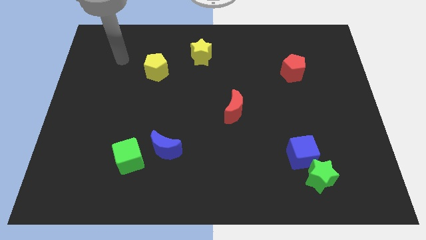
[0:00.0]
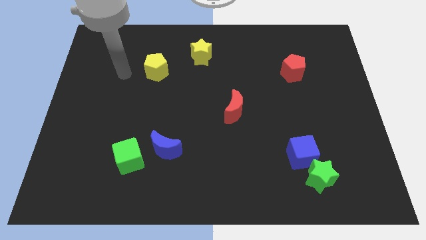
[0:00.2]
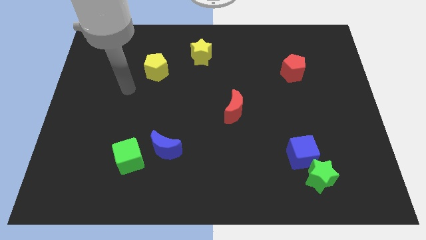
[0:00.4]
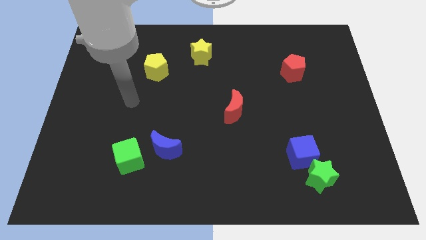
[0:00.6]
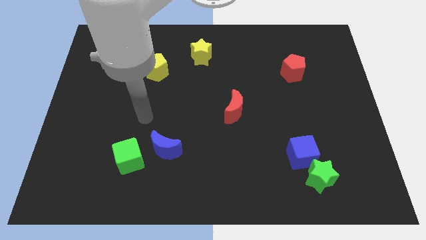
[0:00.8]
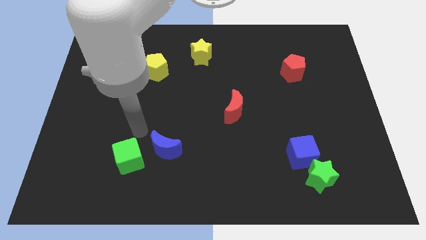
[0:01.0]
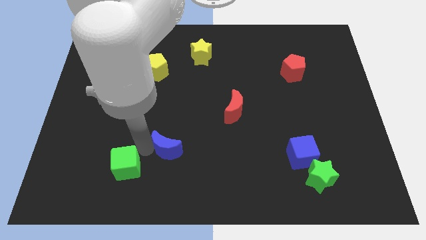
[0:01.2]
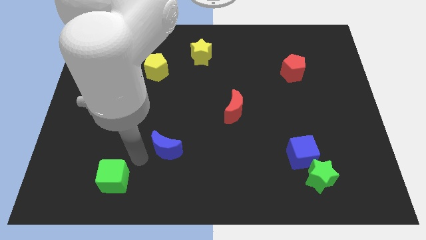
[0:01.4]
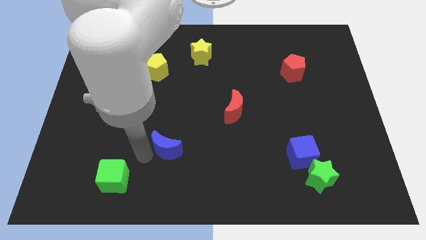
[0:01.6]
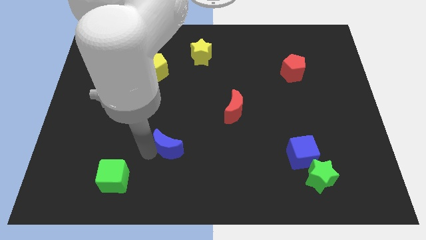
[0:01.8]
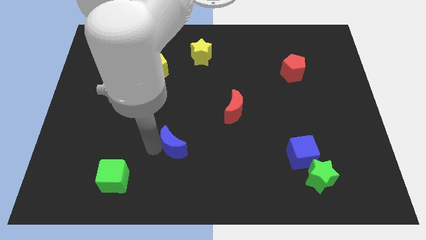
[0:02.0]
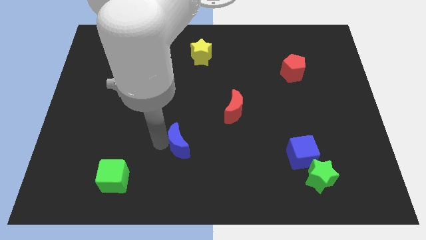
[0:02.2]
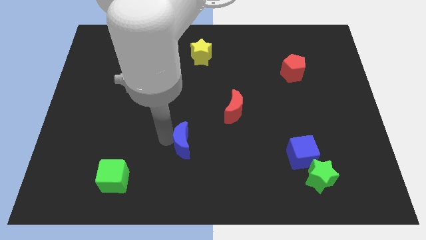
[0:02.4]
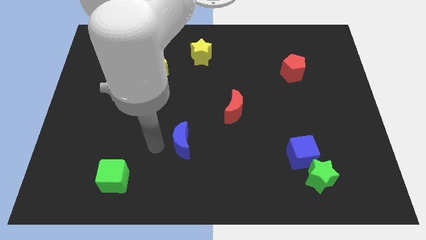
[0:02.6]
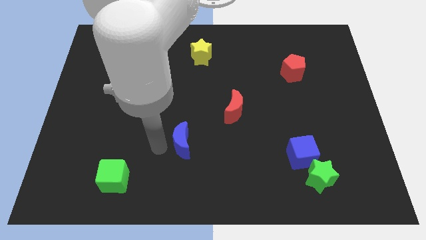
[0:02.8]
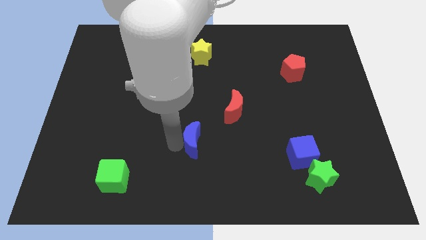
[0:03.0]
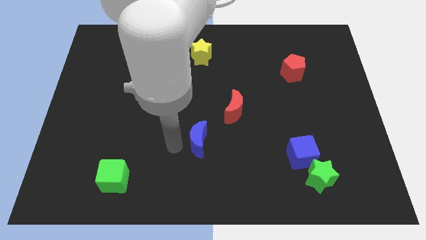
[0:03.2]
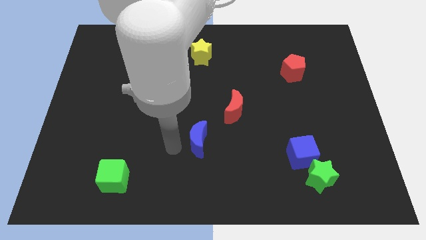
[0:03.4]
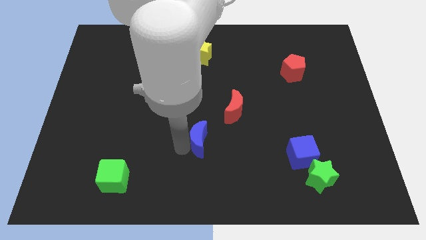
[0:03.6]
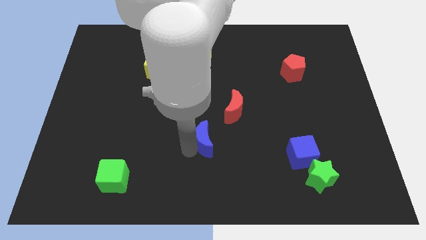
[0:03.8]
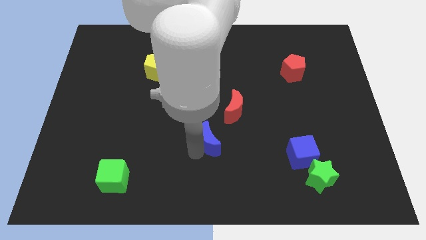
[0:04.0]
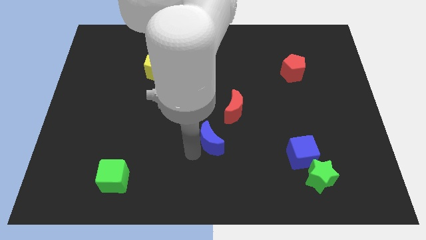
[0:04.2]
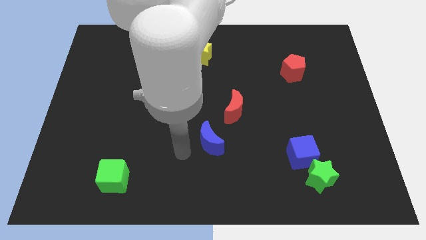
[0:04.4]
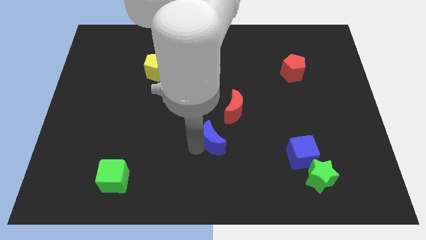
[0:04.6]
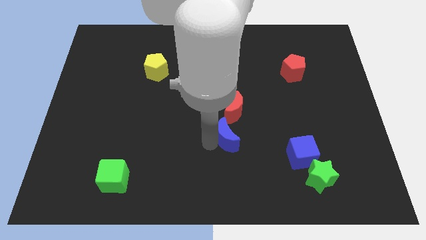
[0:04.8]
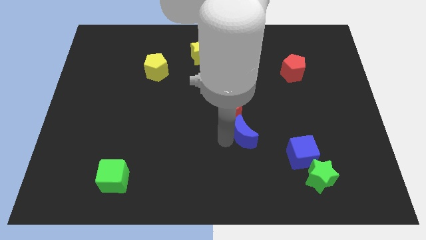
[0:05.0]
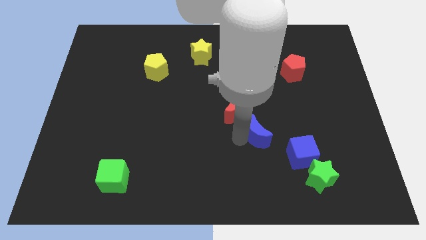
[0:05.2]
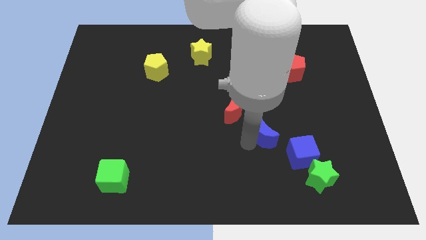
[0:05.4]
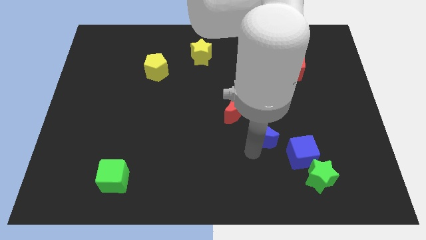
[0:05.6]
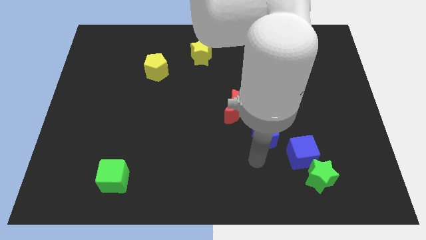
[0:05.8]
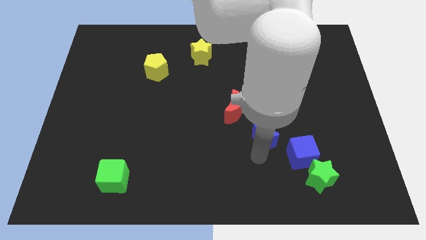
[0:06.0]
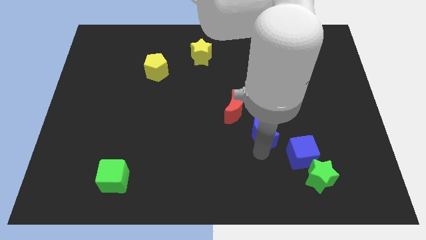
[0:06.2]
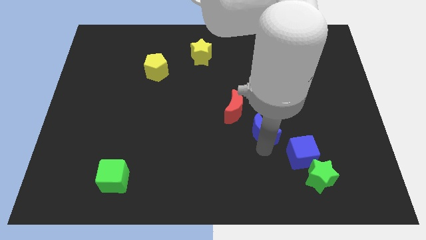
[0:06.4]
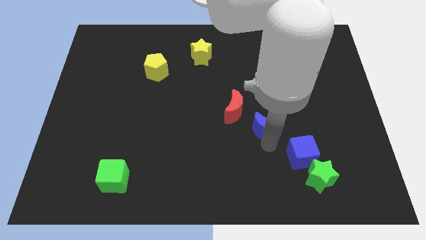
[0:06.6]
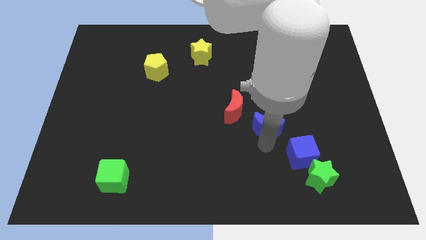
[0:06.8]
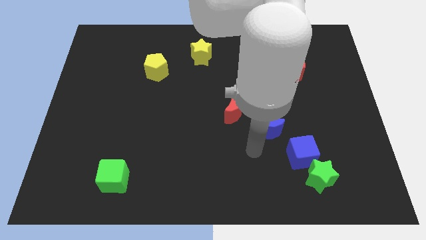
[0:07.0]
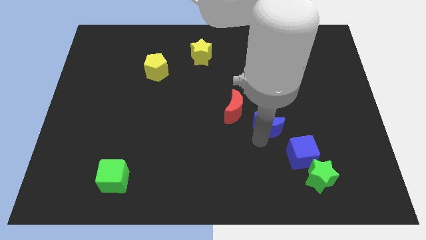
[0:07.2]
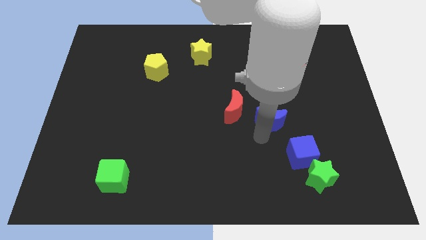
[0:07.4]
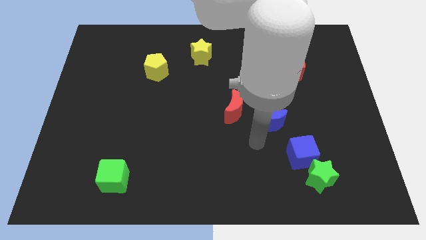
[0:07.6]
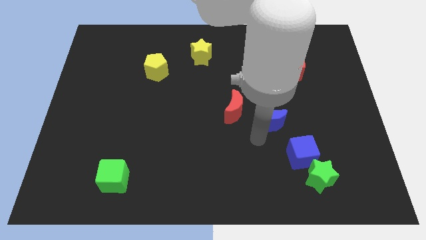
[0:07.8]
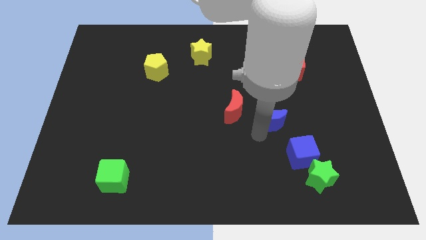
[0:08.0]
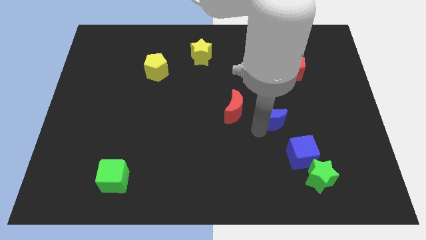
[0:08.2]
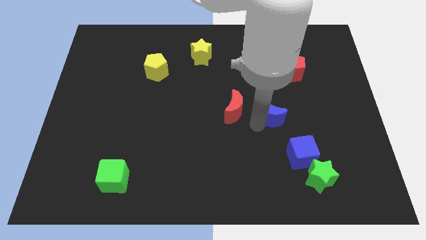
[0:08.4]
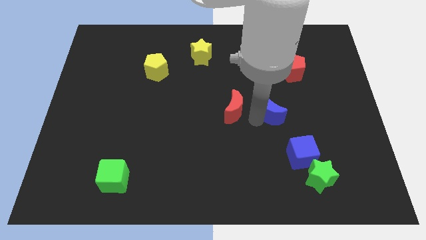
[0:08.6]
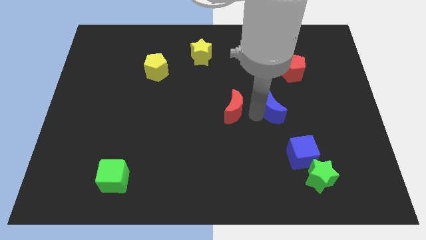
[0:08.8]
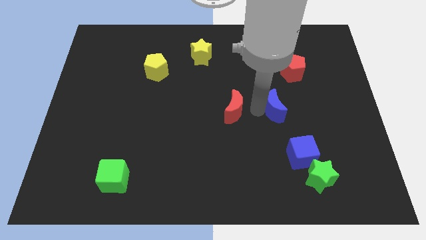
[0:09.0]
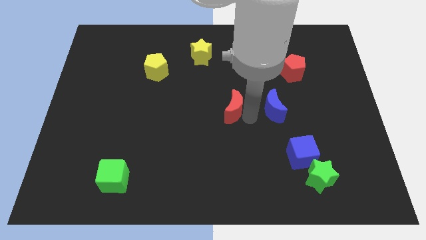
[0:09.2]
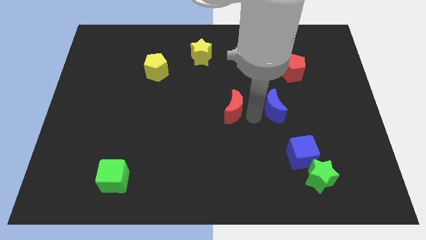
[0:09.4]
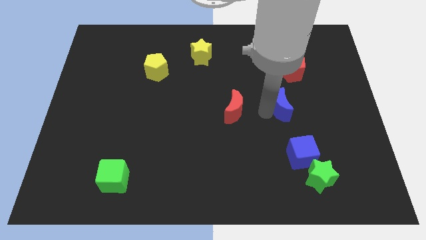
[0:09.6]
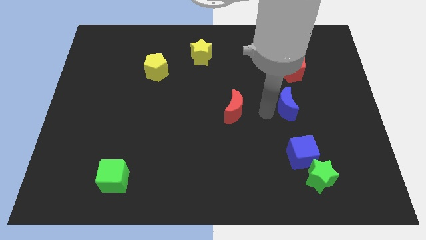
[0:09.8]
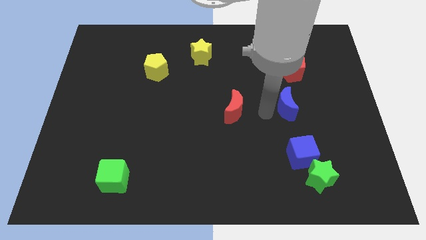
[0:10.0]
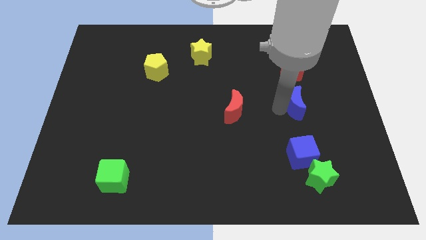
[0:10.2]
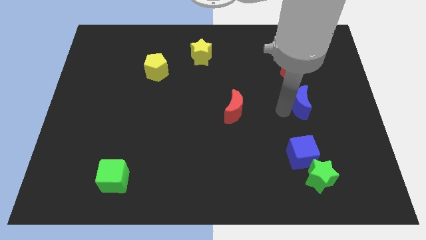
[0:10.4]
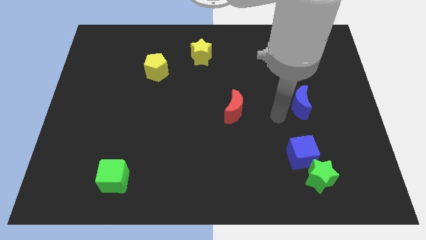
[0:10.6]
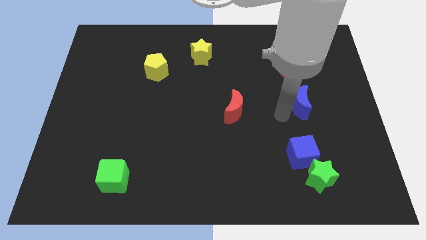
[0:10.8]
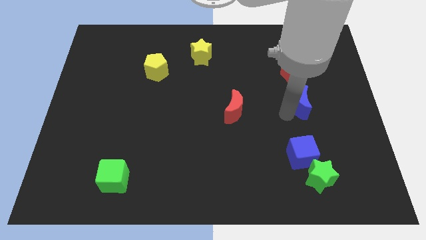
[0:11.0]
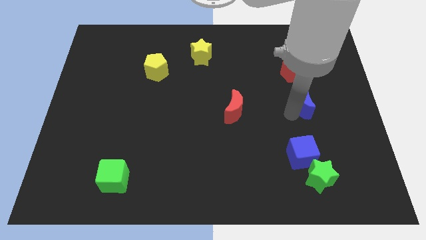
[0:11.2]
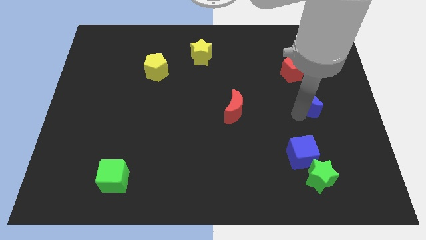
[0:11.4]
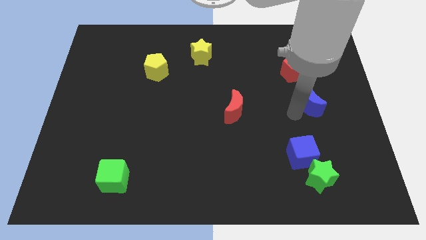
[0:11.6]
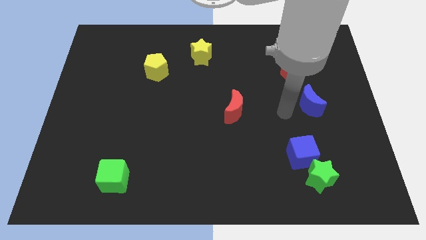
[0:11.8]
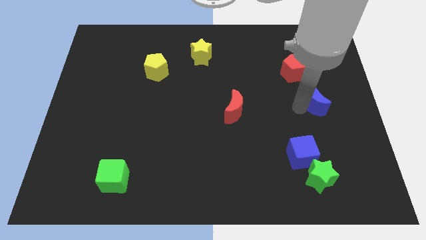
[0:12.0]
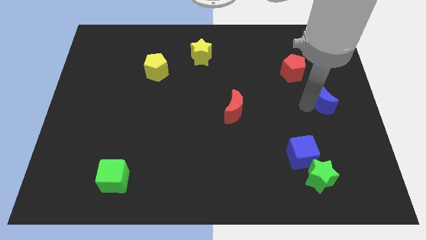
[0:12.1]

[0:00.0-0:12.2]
put the blue moon to the center right
